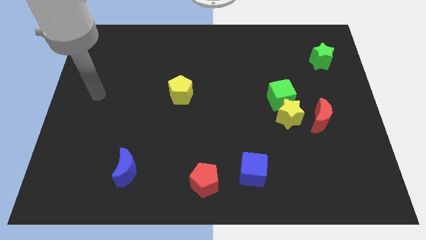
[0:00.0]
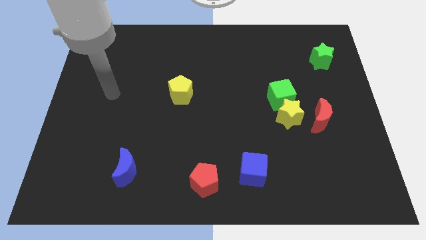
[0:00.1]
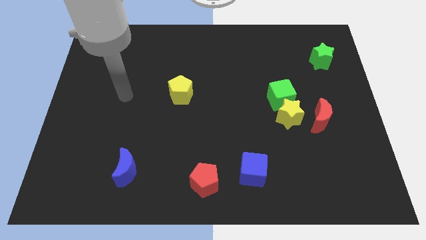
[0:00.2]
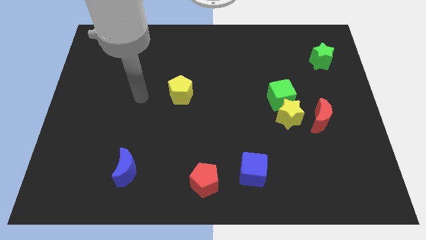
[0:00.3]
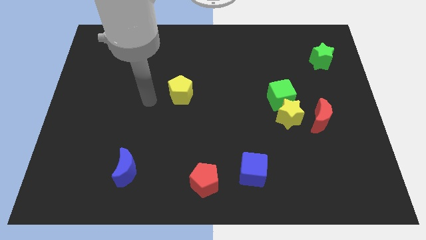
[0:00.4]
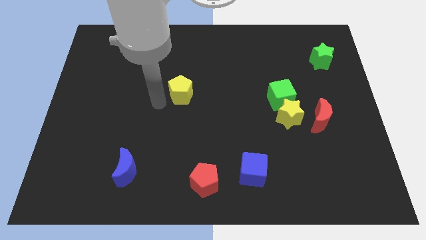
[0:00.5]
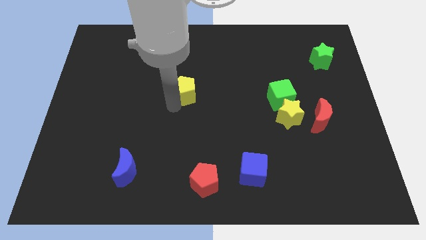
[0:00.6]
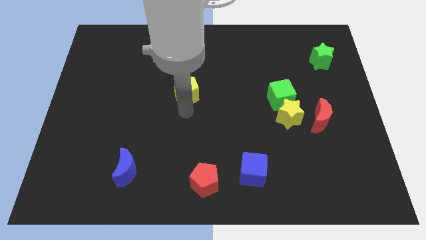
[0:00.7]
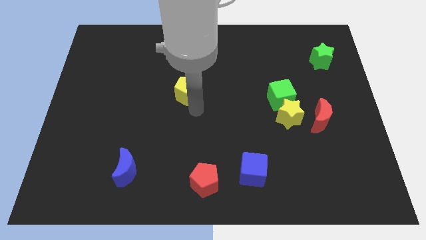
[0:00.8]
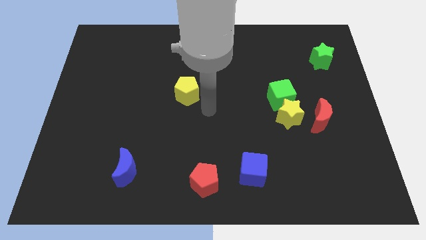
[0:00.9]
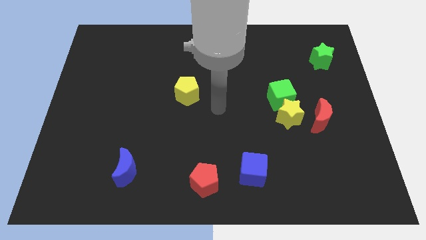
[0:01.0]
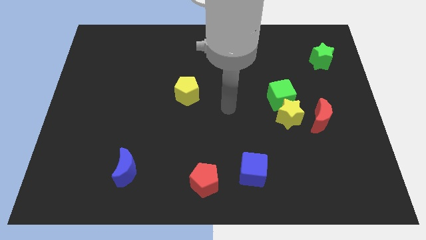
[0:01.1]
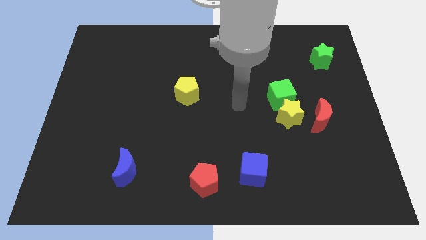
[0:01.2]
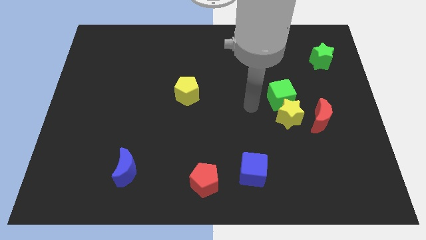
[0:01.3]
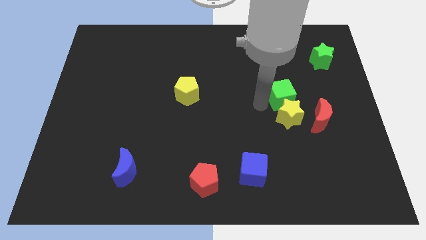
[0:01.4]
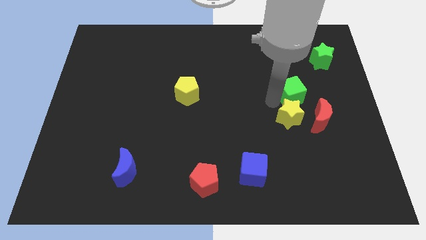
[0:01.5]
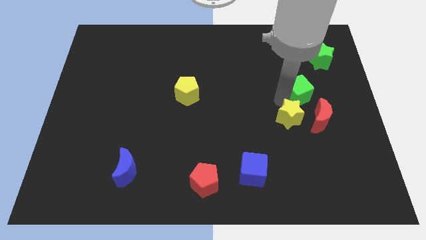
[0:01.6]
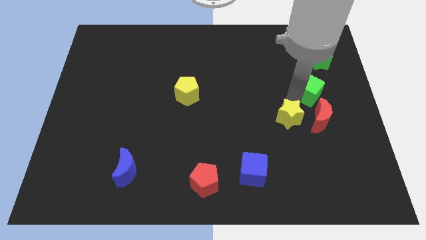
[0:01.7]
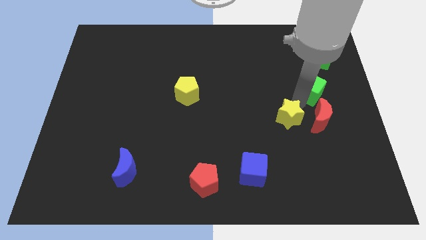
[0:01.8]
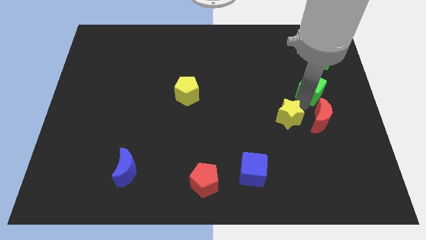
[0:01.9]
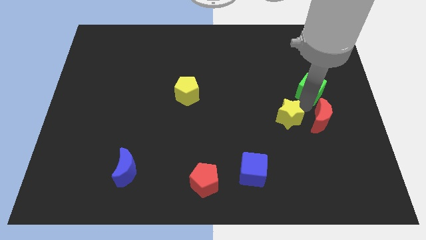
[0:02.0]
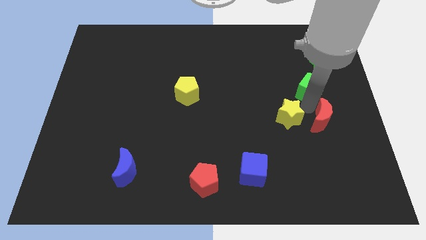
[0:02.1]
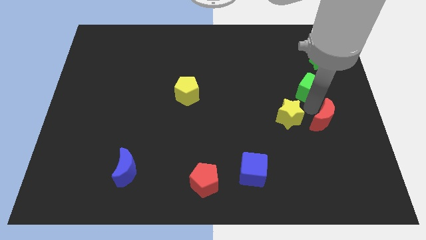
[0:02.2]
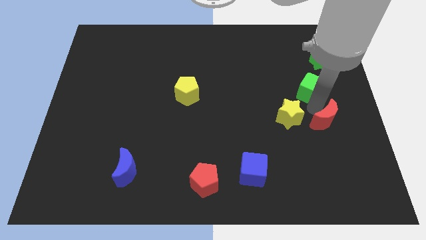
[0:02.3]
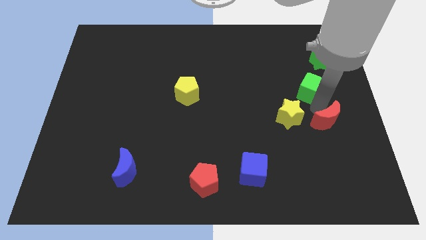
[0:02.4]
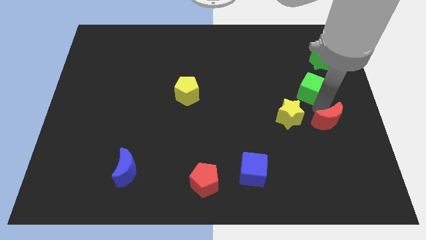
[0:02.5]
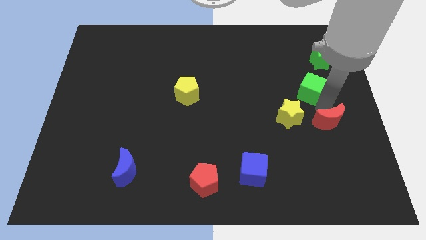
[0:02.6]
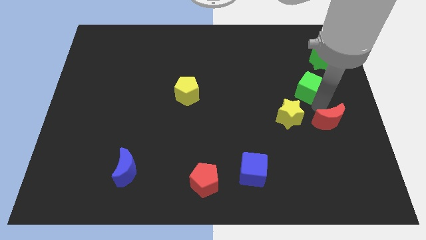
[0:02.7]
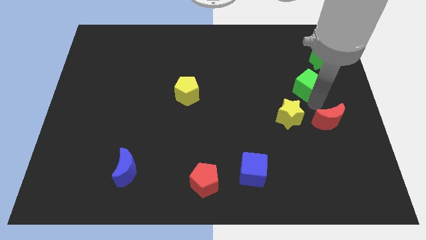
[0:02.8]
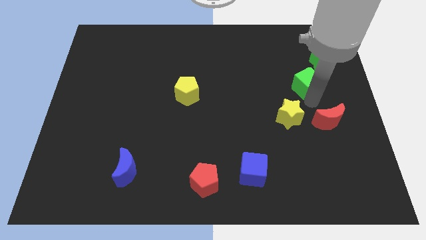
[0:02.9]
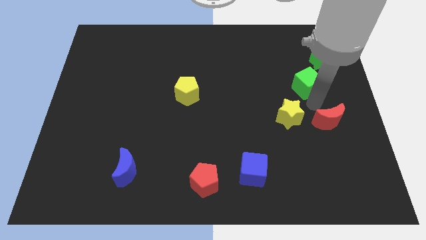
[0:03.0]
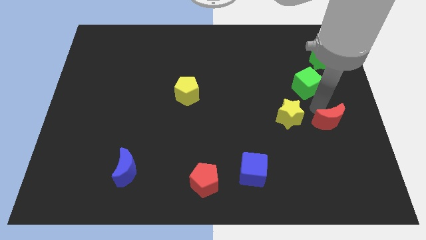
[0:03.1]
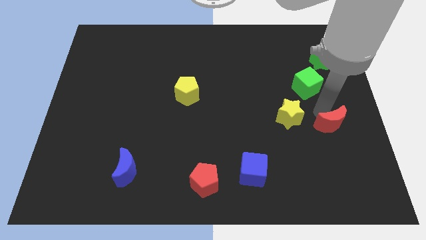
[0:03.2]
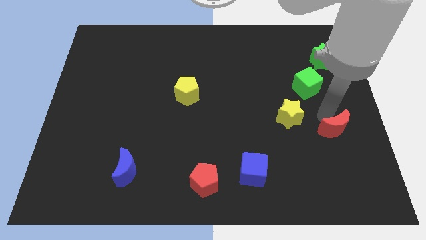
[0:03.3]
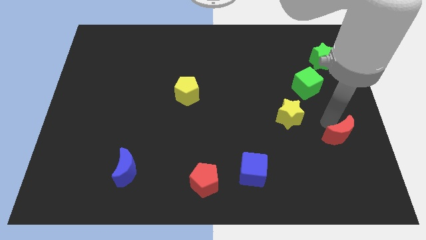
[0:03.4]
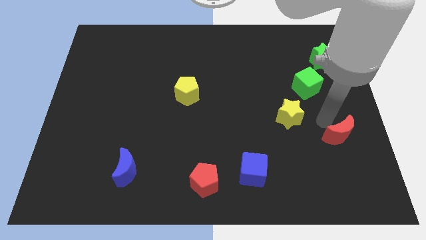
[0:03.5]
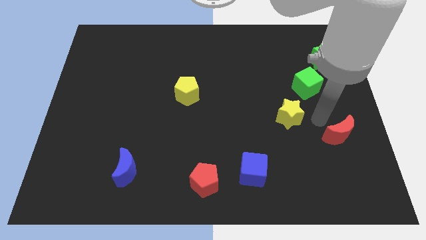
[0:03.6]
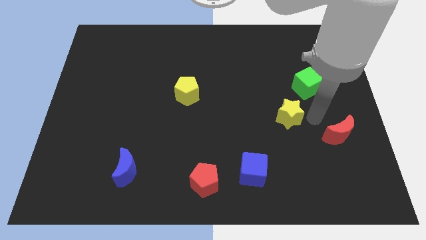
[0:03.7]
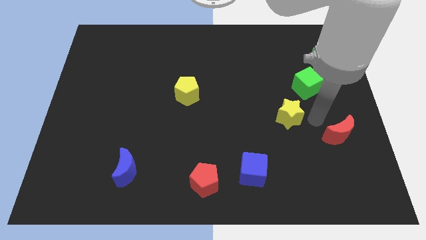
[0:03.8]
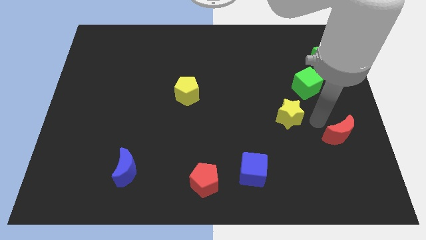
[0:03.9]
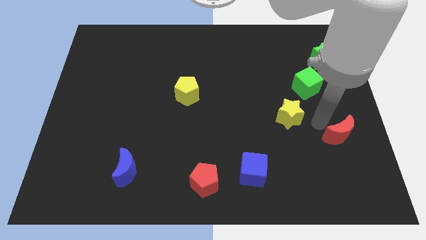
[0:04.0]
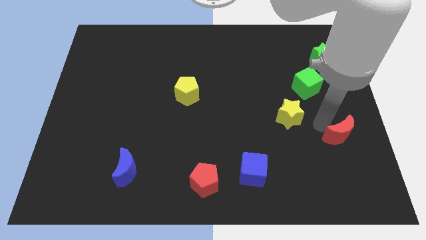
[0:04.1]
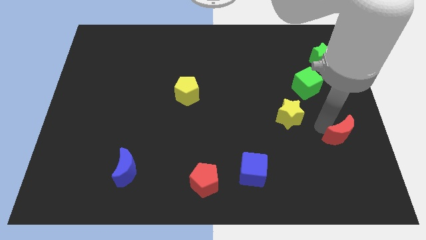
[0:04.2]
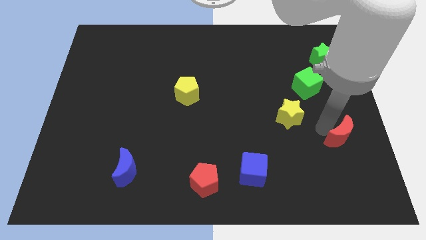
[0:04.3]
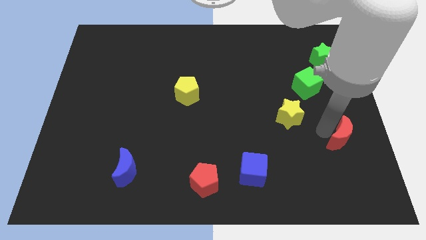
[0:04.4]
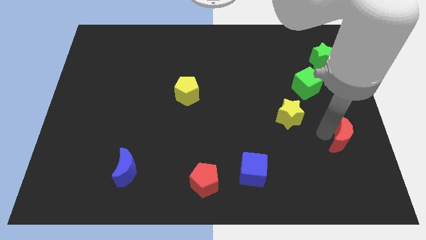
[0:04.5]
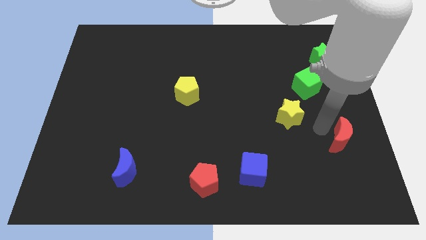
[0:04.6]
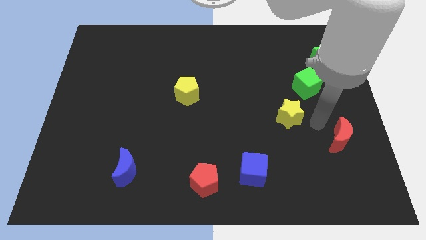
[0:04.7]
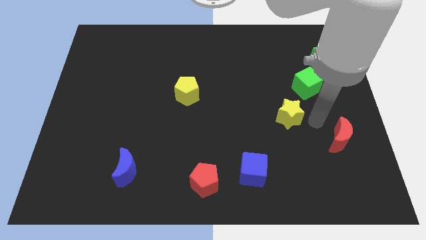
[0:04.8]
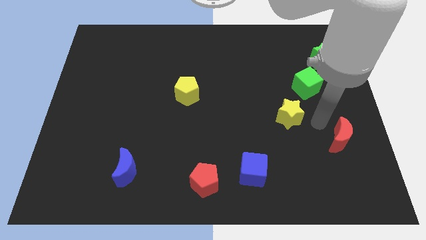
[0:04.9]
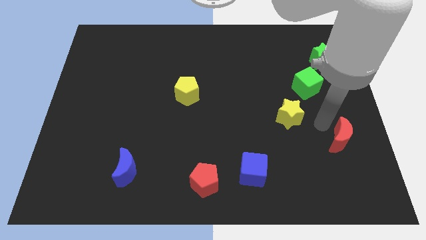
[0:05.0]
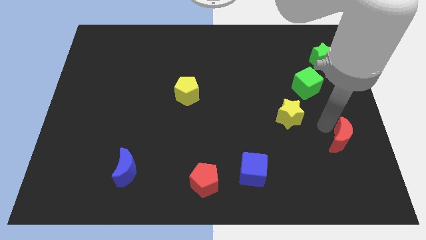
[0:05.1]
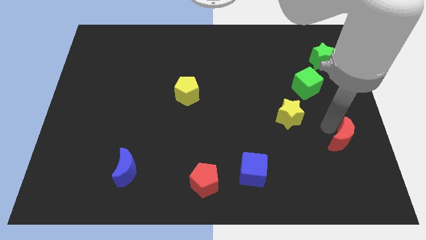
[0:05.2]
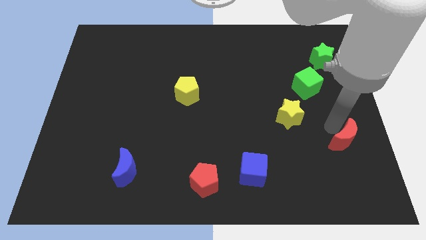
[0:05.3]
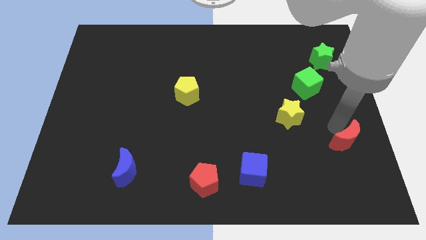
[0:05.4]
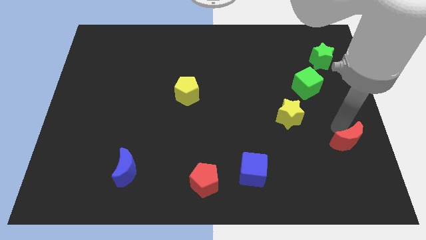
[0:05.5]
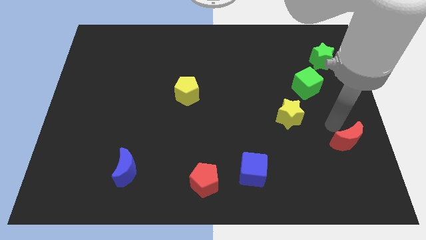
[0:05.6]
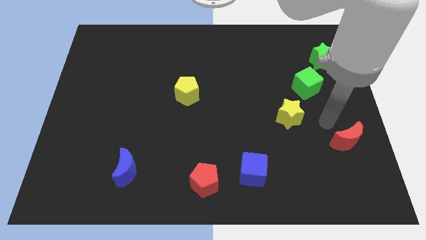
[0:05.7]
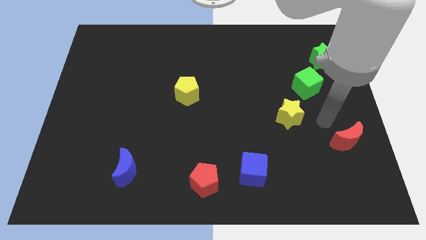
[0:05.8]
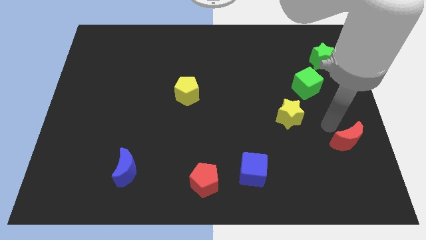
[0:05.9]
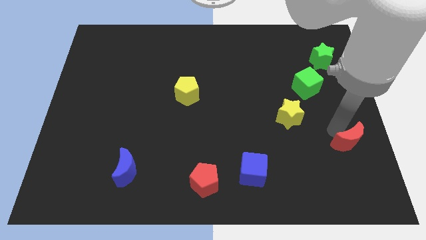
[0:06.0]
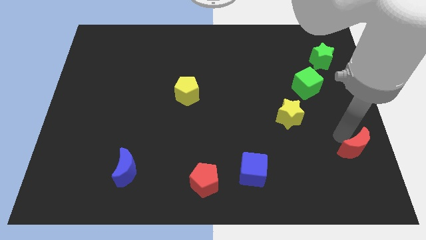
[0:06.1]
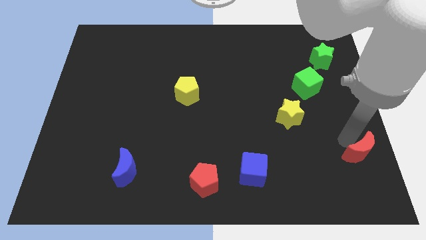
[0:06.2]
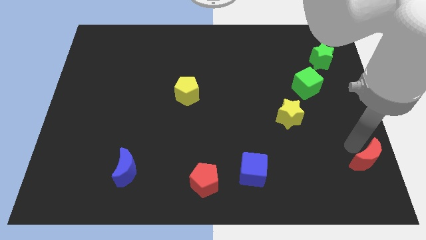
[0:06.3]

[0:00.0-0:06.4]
put the red moon to the bottom right
